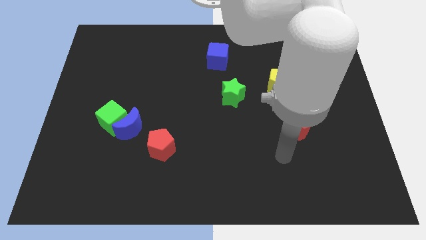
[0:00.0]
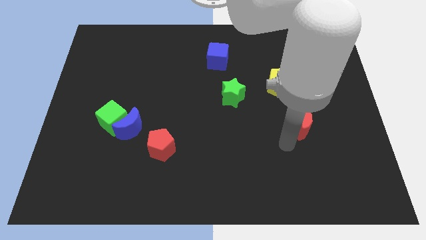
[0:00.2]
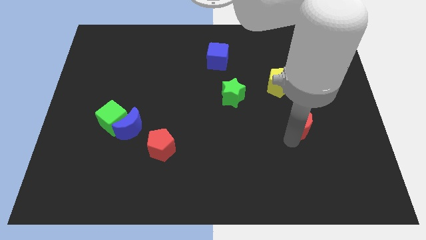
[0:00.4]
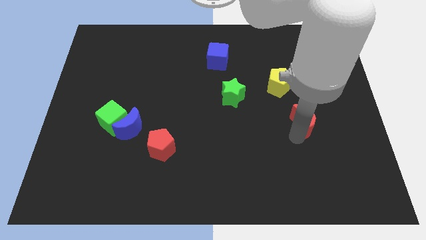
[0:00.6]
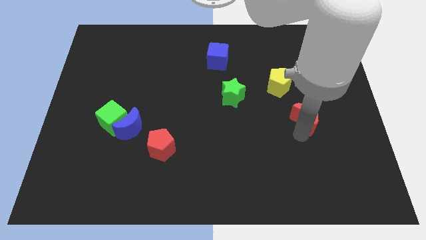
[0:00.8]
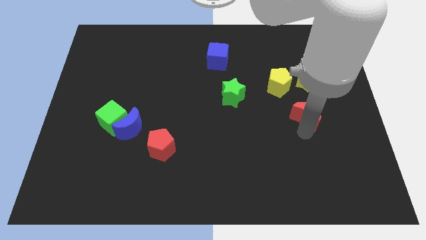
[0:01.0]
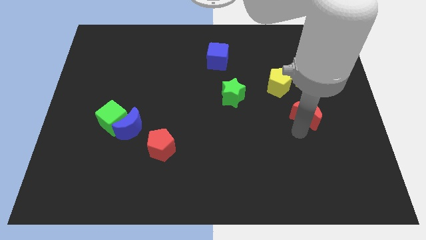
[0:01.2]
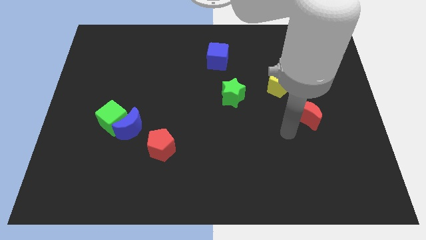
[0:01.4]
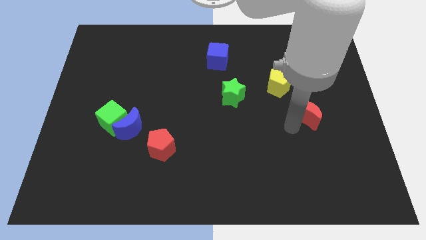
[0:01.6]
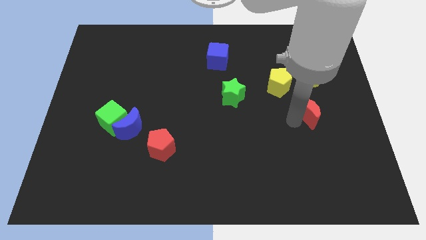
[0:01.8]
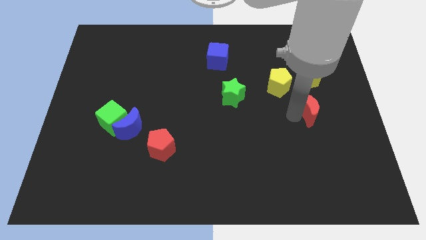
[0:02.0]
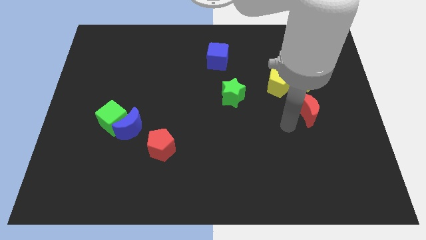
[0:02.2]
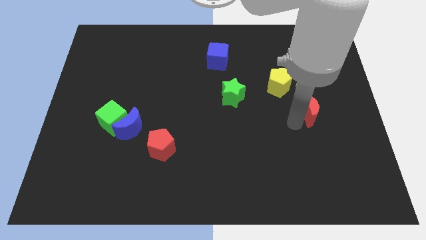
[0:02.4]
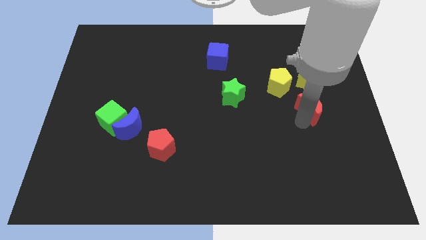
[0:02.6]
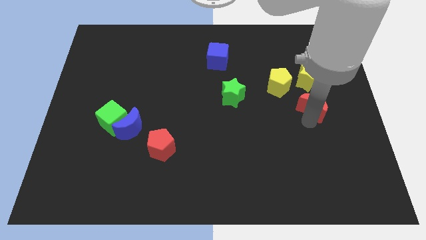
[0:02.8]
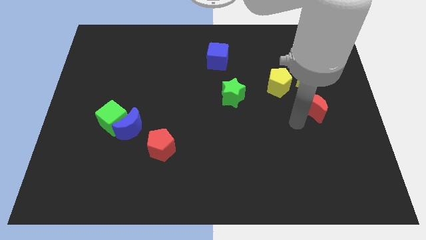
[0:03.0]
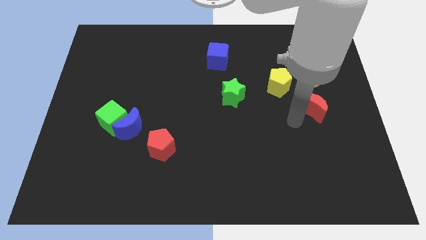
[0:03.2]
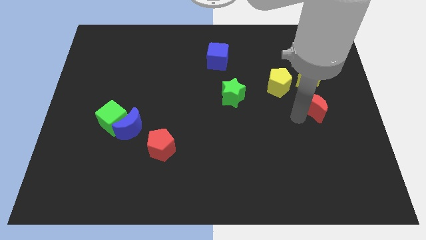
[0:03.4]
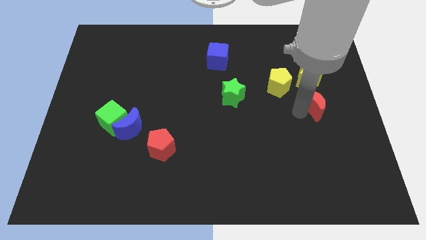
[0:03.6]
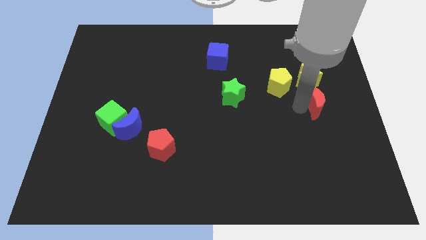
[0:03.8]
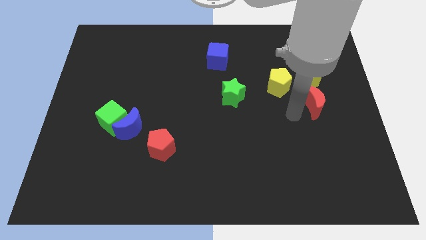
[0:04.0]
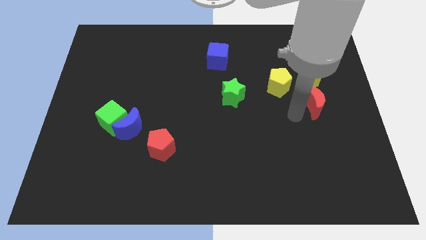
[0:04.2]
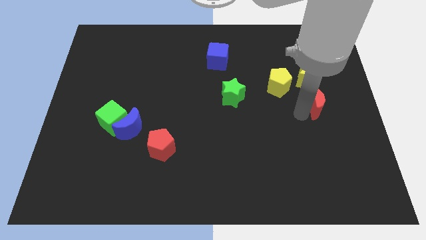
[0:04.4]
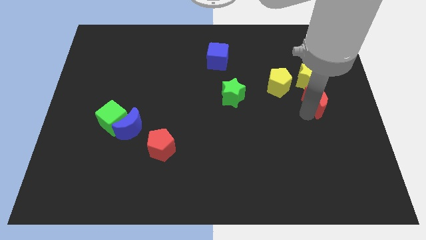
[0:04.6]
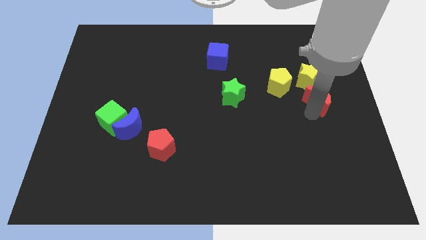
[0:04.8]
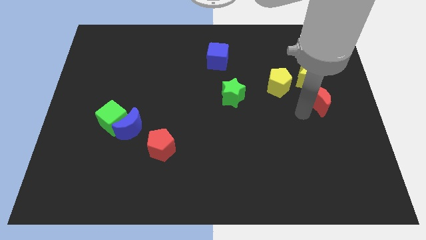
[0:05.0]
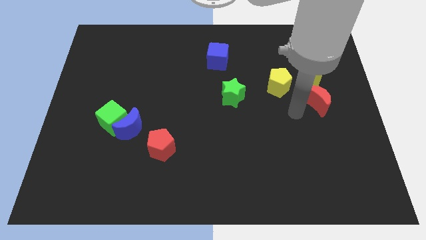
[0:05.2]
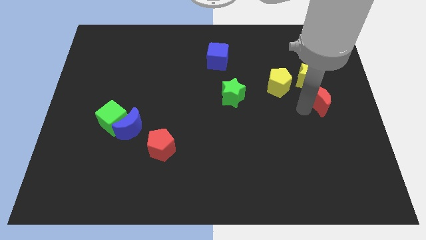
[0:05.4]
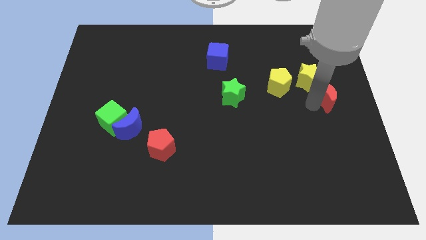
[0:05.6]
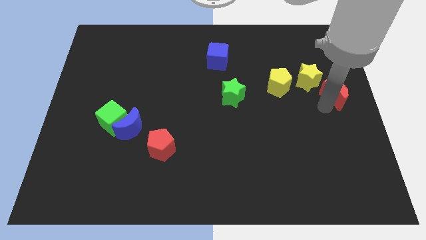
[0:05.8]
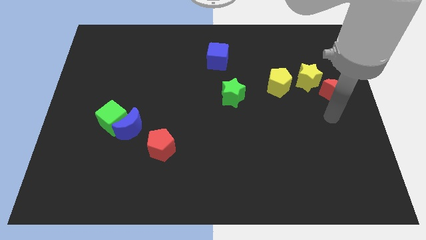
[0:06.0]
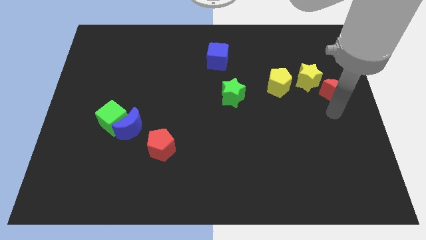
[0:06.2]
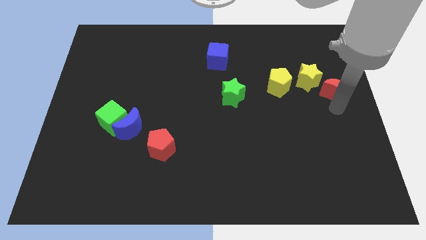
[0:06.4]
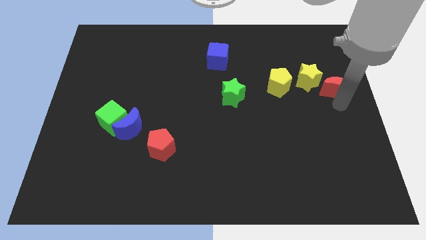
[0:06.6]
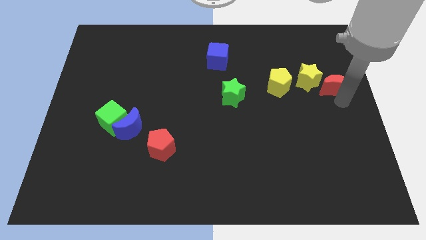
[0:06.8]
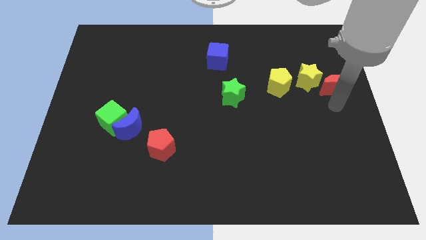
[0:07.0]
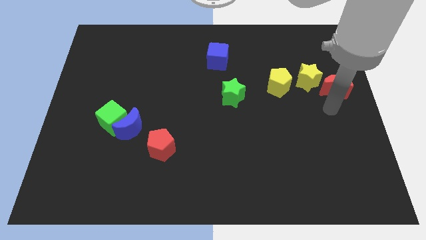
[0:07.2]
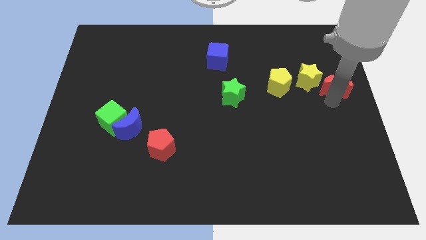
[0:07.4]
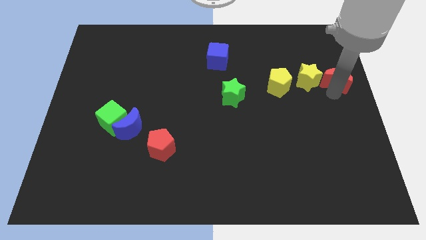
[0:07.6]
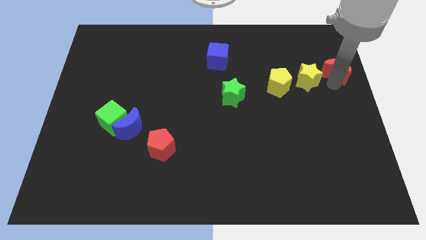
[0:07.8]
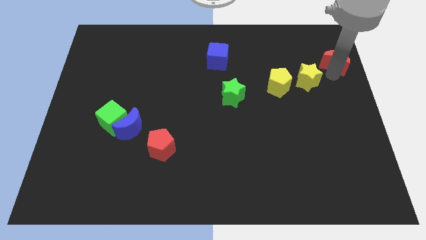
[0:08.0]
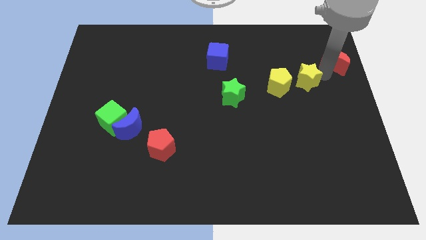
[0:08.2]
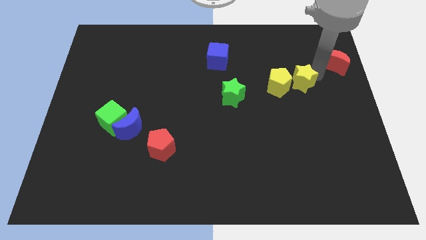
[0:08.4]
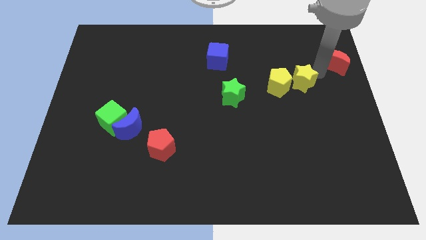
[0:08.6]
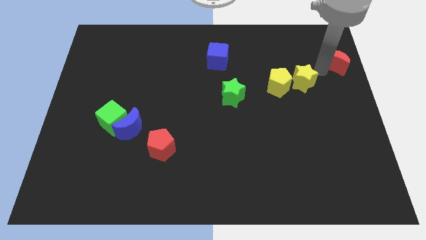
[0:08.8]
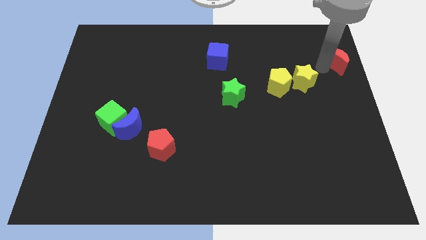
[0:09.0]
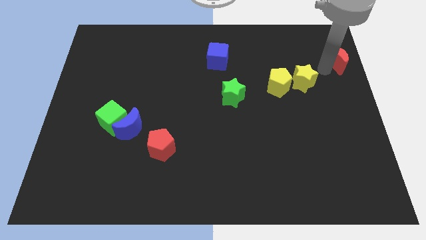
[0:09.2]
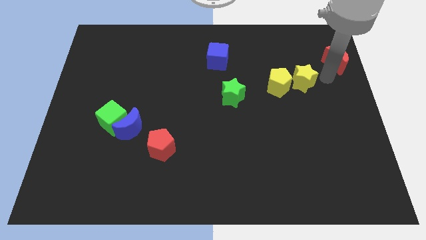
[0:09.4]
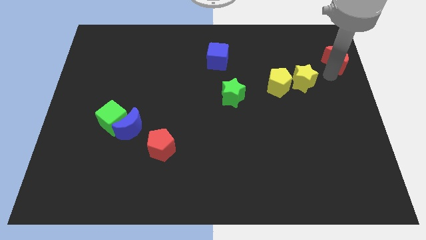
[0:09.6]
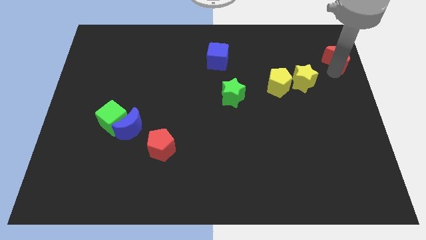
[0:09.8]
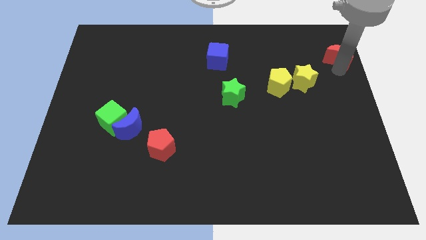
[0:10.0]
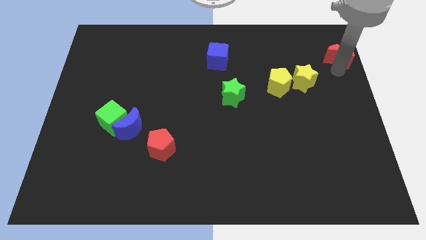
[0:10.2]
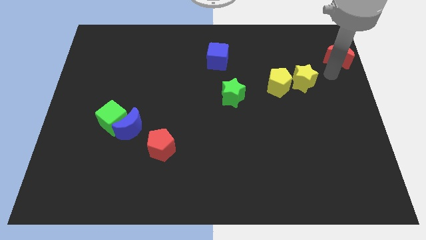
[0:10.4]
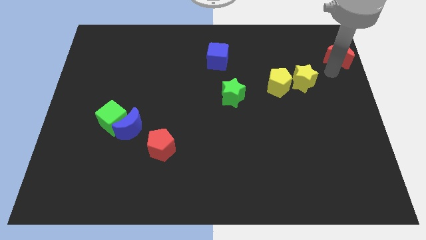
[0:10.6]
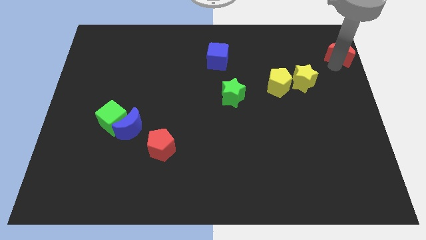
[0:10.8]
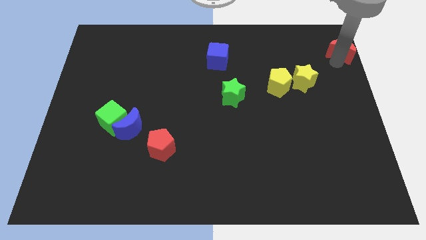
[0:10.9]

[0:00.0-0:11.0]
push the red moon to the upper right corner
